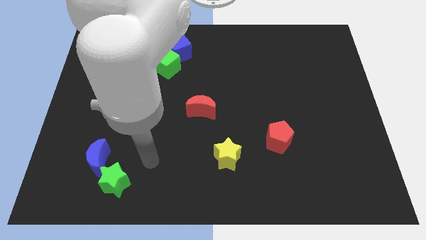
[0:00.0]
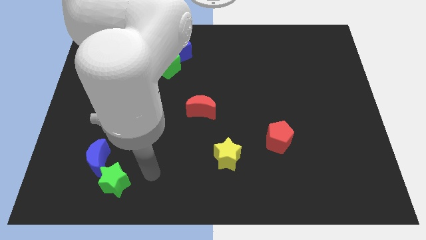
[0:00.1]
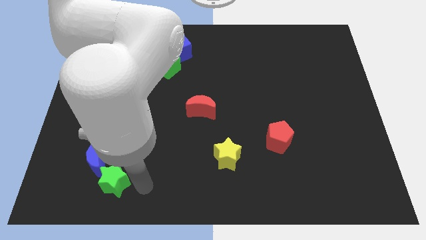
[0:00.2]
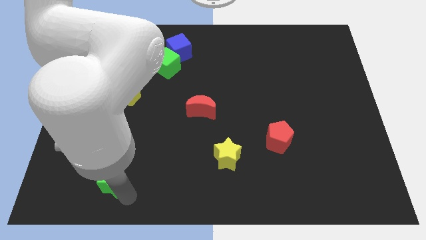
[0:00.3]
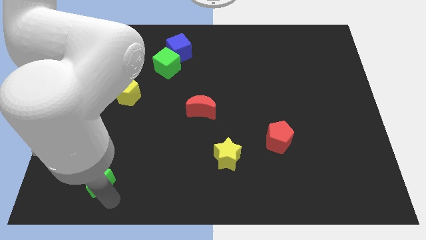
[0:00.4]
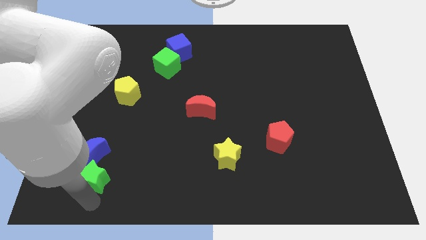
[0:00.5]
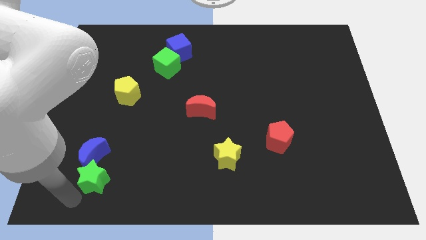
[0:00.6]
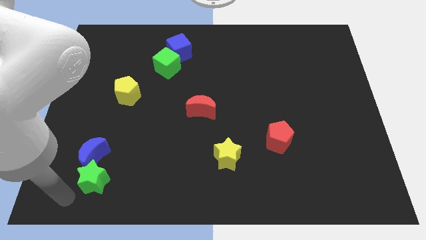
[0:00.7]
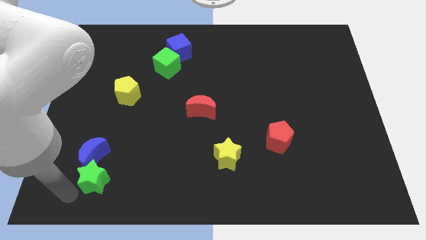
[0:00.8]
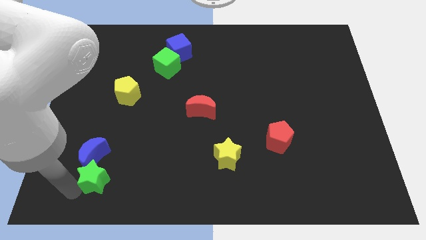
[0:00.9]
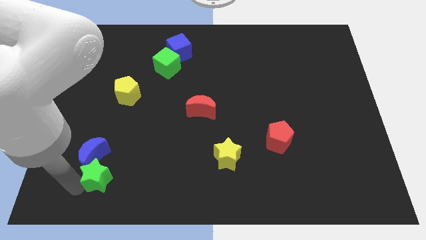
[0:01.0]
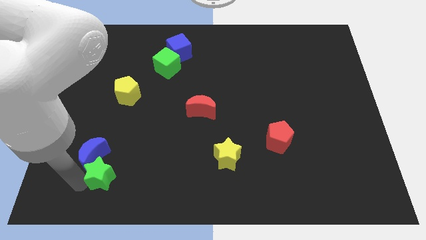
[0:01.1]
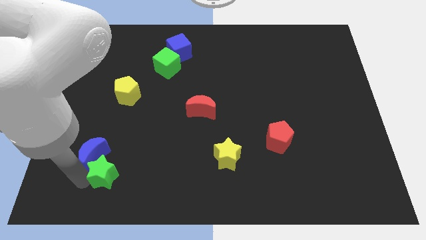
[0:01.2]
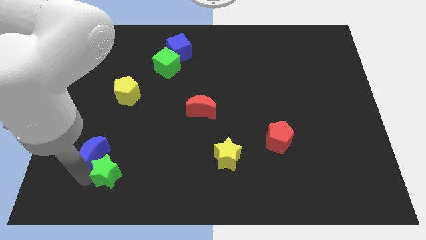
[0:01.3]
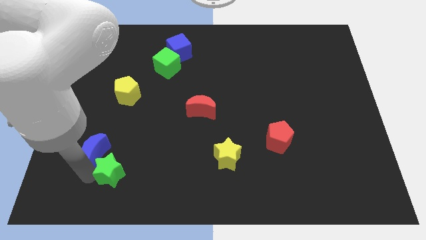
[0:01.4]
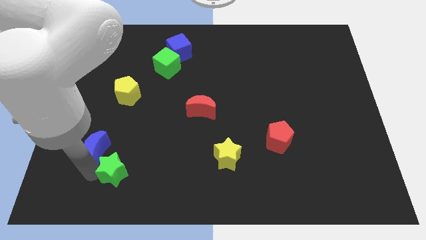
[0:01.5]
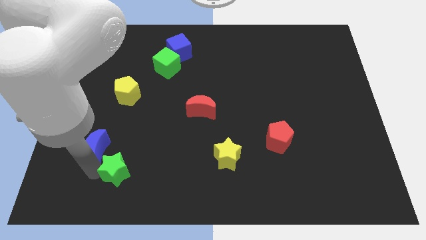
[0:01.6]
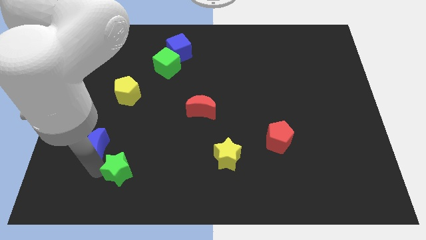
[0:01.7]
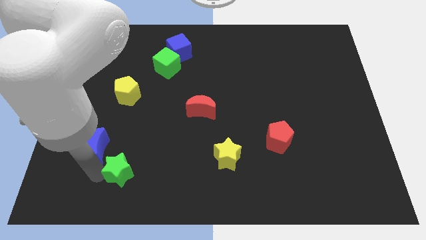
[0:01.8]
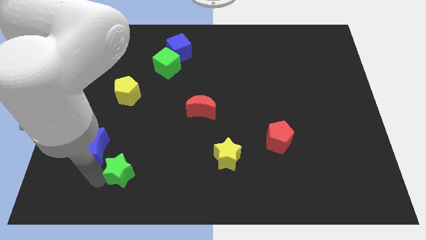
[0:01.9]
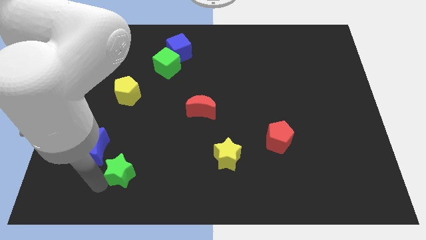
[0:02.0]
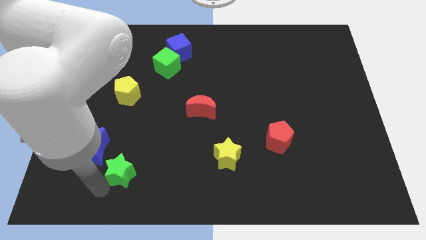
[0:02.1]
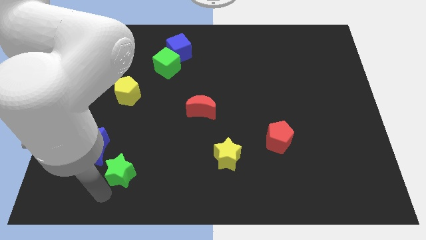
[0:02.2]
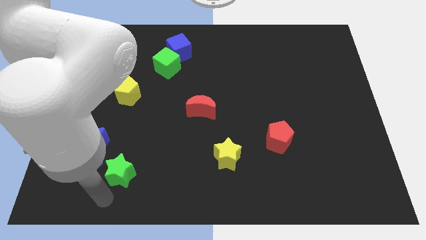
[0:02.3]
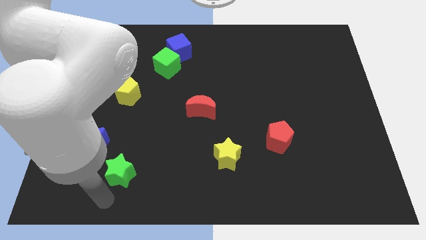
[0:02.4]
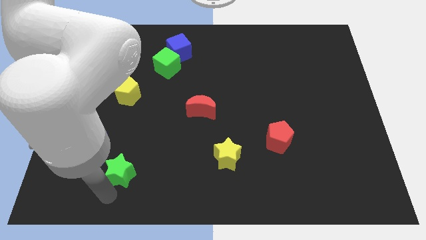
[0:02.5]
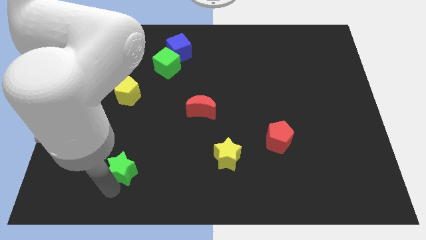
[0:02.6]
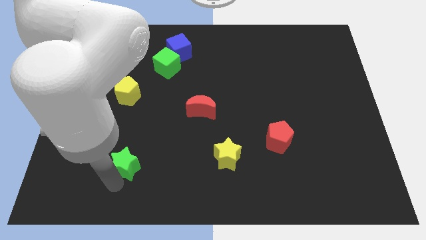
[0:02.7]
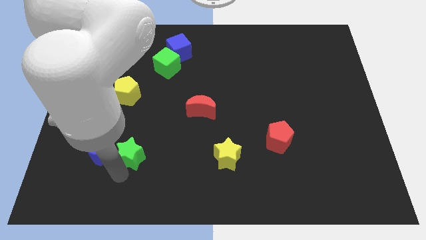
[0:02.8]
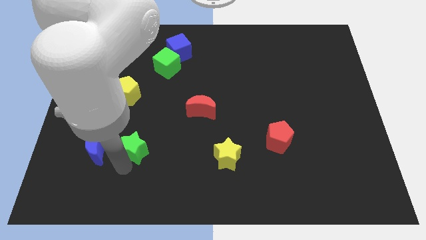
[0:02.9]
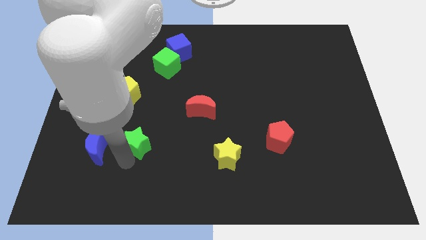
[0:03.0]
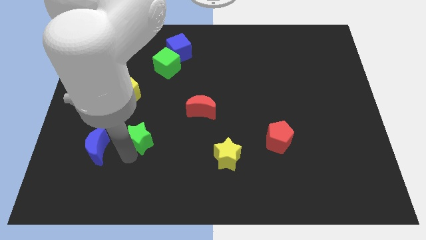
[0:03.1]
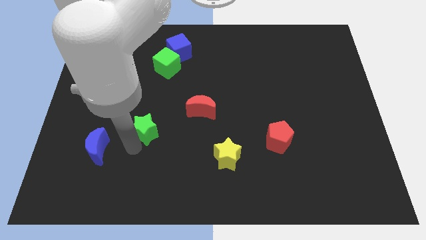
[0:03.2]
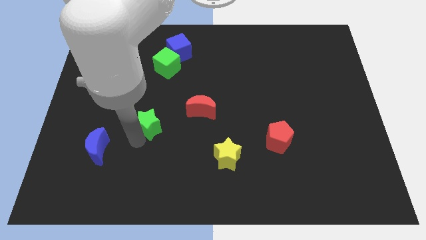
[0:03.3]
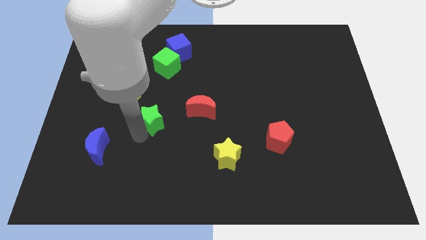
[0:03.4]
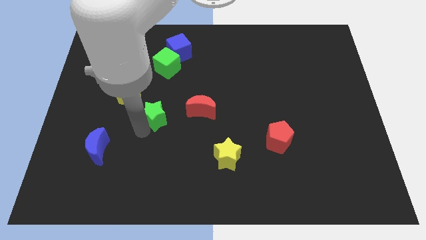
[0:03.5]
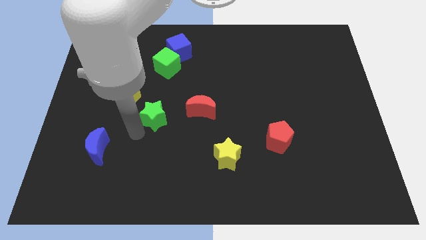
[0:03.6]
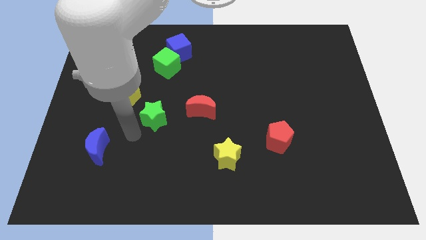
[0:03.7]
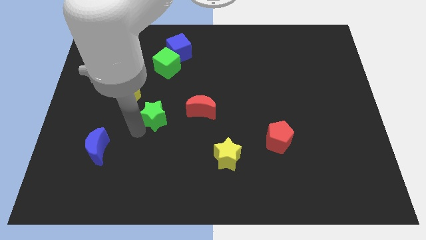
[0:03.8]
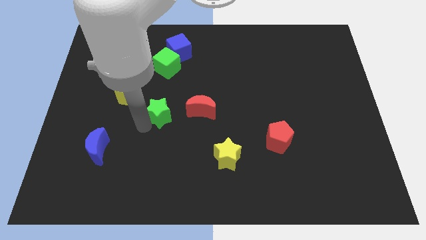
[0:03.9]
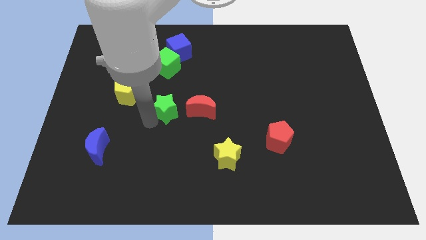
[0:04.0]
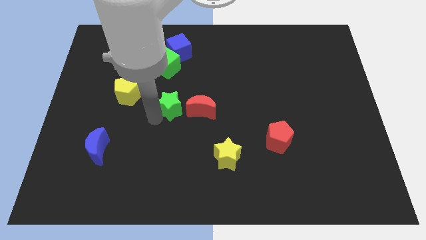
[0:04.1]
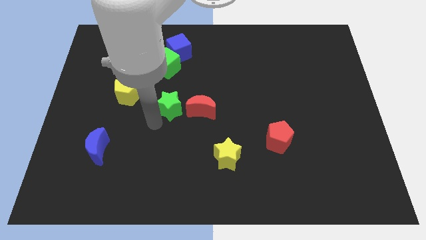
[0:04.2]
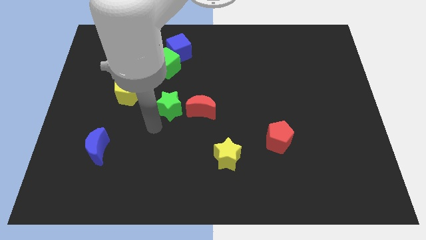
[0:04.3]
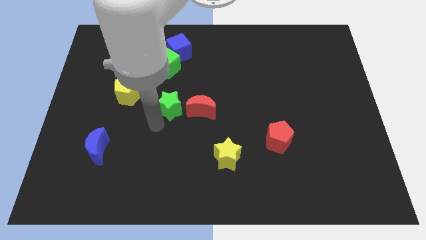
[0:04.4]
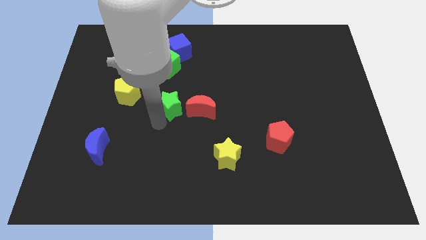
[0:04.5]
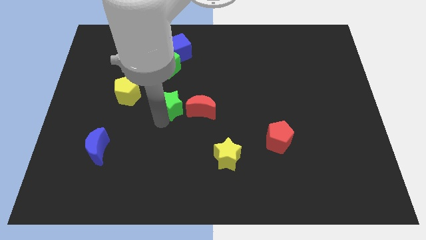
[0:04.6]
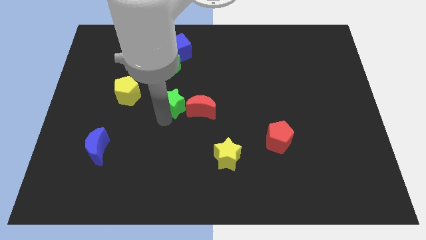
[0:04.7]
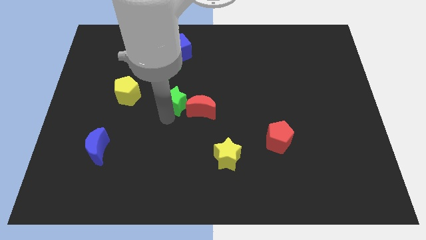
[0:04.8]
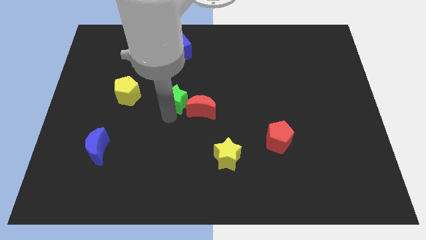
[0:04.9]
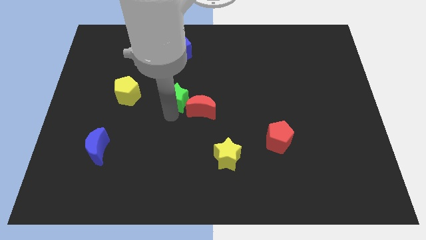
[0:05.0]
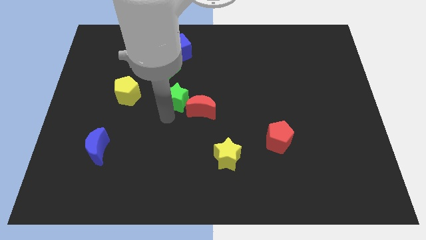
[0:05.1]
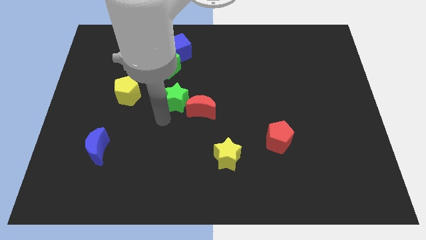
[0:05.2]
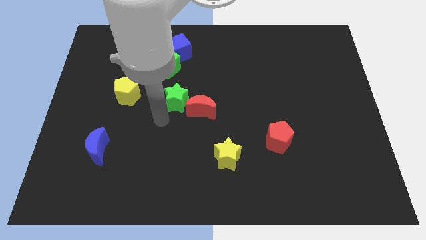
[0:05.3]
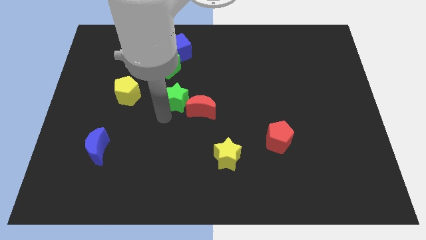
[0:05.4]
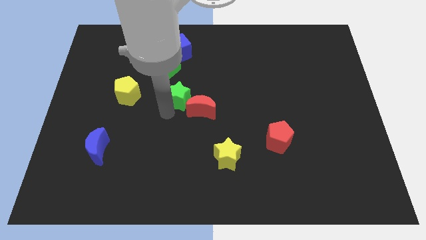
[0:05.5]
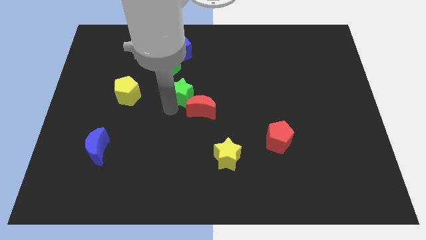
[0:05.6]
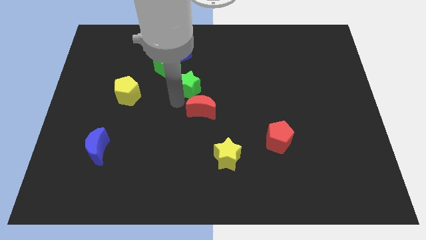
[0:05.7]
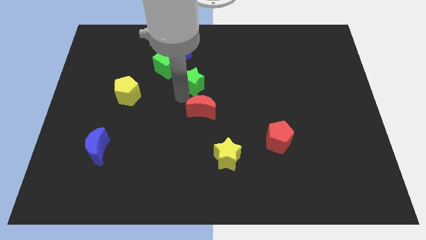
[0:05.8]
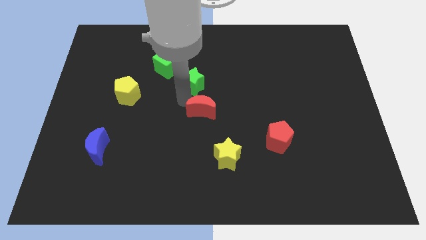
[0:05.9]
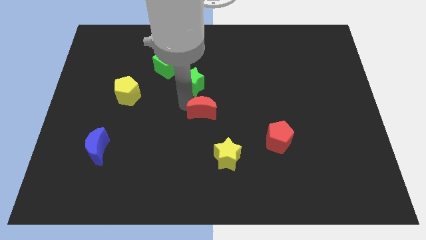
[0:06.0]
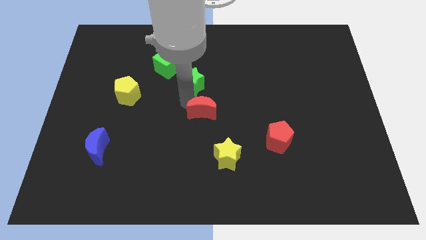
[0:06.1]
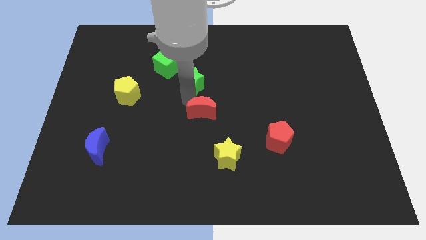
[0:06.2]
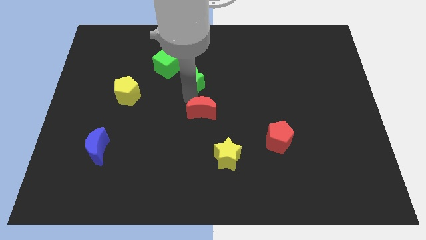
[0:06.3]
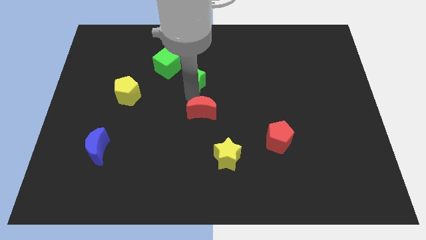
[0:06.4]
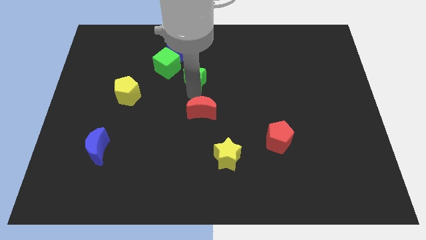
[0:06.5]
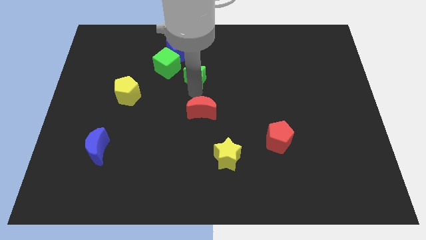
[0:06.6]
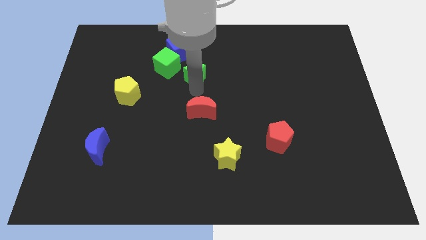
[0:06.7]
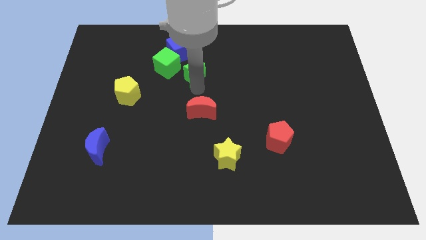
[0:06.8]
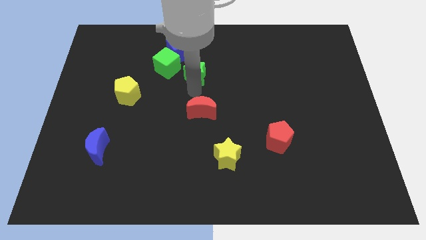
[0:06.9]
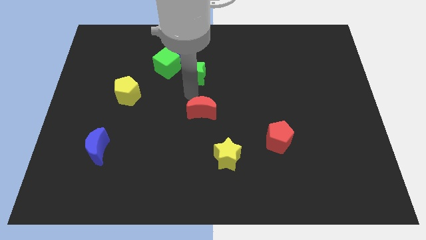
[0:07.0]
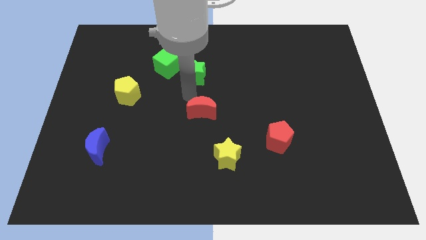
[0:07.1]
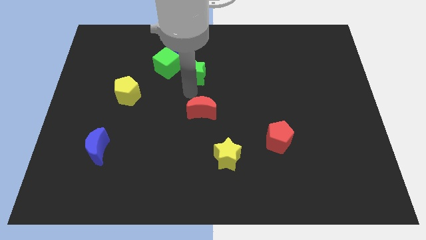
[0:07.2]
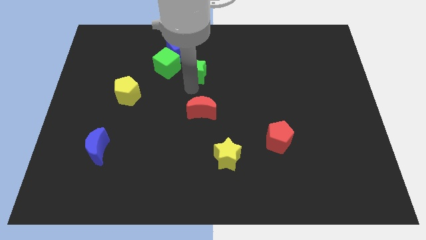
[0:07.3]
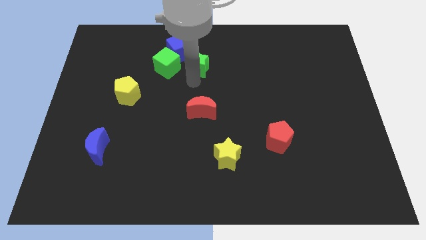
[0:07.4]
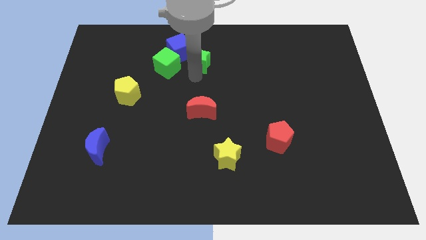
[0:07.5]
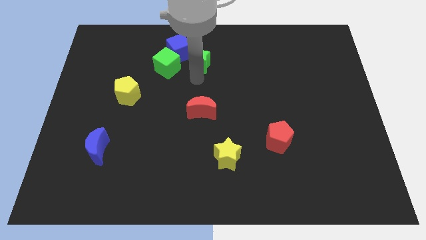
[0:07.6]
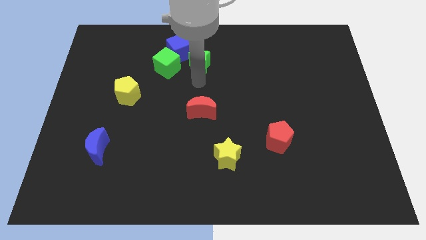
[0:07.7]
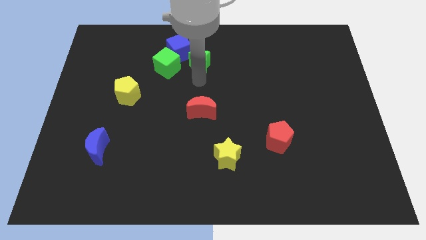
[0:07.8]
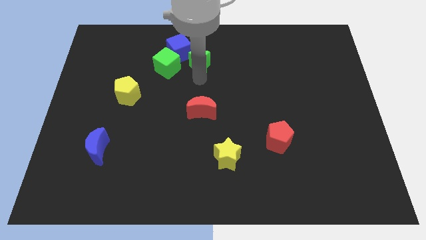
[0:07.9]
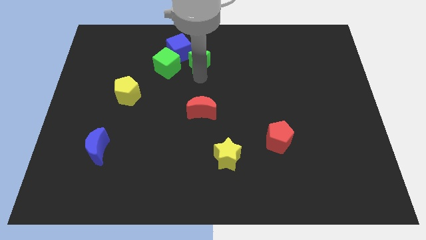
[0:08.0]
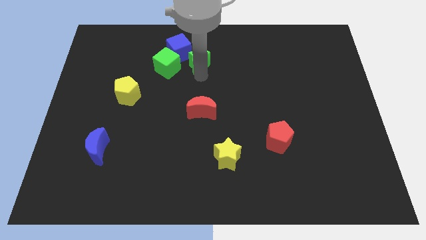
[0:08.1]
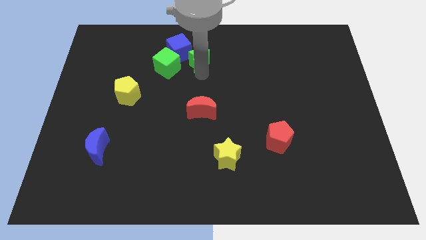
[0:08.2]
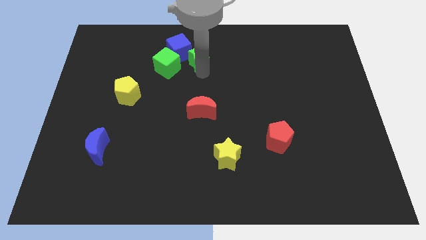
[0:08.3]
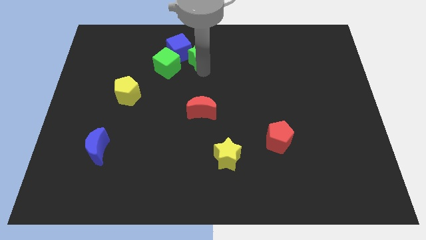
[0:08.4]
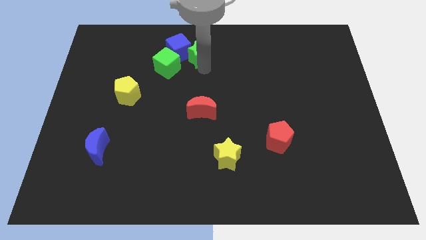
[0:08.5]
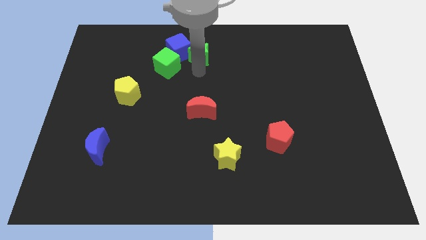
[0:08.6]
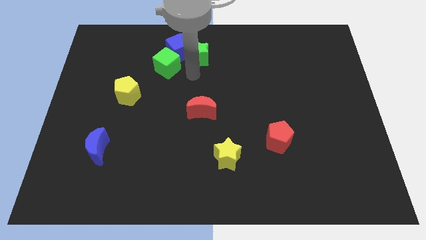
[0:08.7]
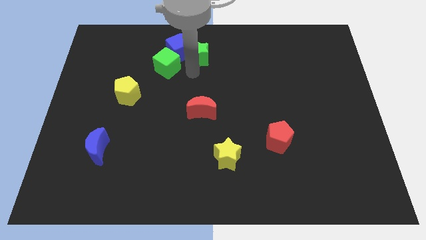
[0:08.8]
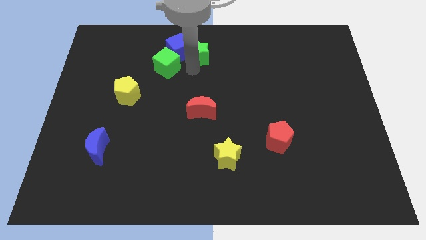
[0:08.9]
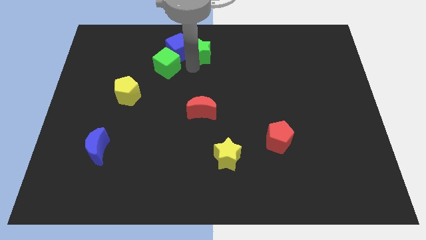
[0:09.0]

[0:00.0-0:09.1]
put the green star to the top
